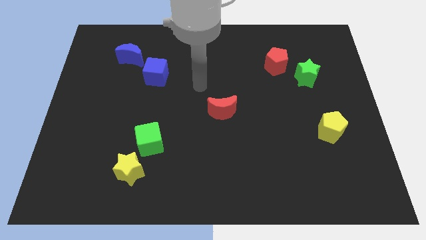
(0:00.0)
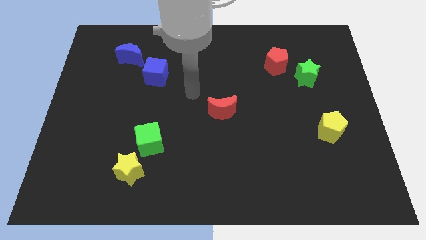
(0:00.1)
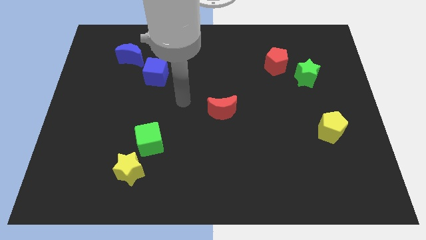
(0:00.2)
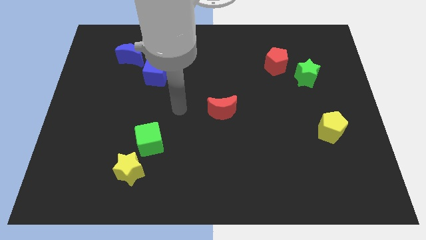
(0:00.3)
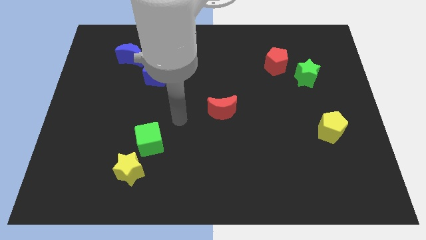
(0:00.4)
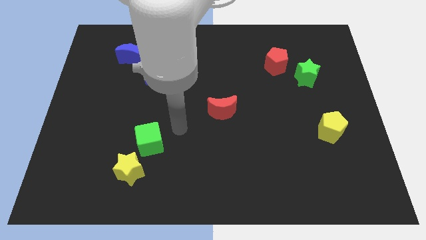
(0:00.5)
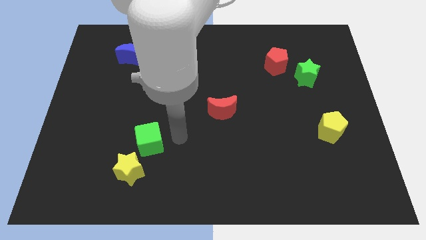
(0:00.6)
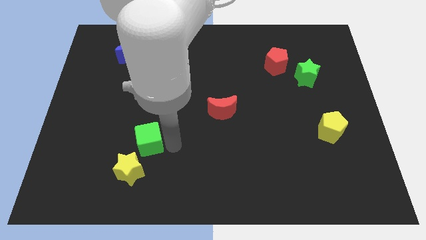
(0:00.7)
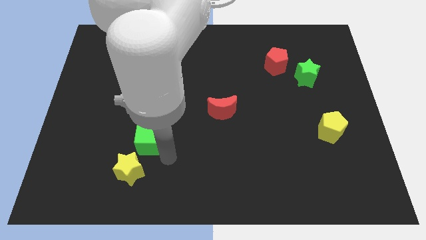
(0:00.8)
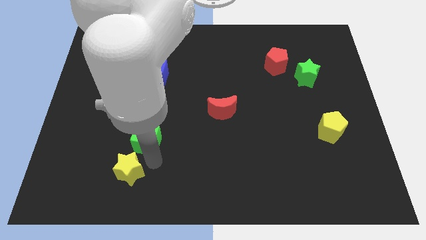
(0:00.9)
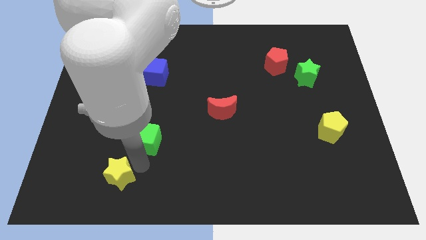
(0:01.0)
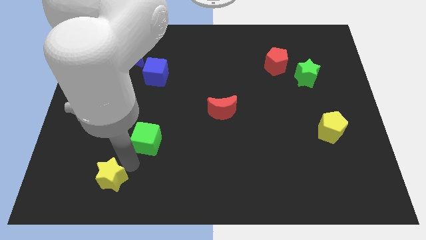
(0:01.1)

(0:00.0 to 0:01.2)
move the green cube away from the yellow star

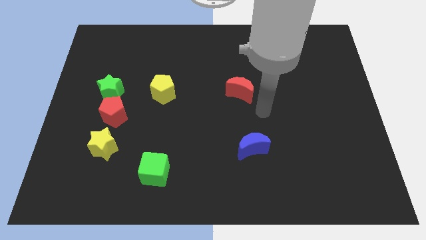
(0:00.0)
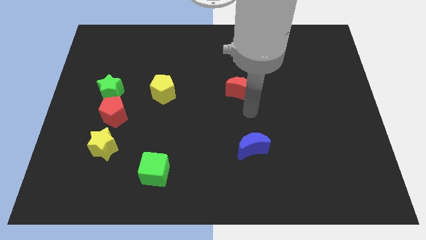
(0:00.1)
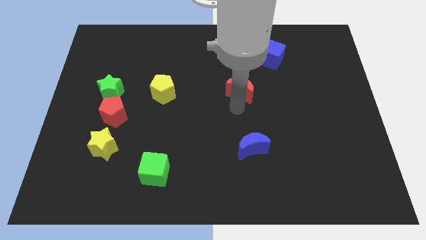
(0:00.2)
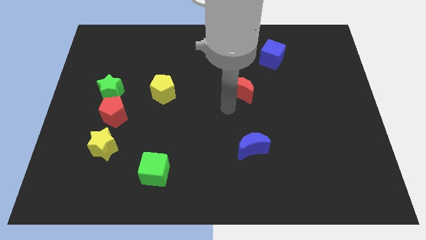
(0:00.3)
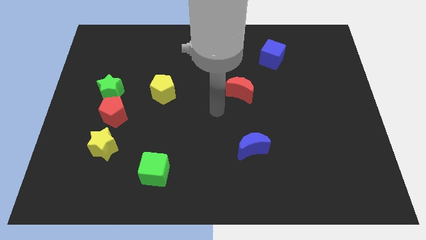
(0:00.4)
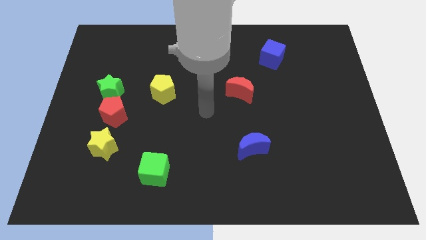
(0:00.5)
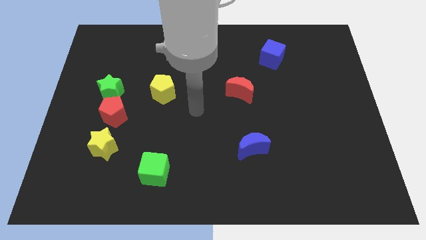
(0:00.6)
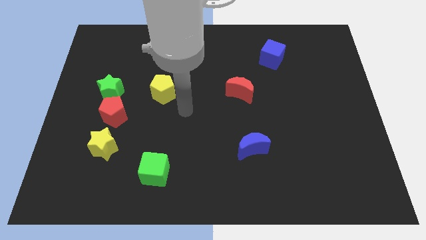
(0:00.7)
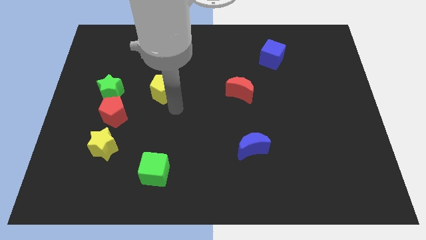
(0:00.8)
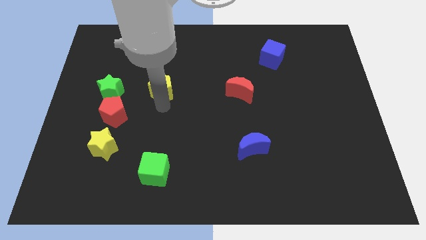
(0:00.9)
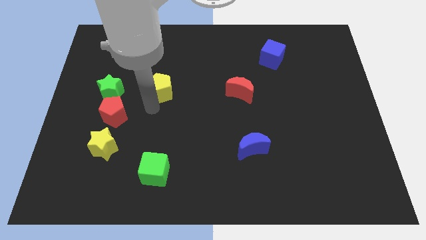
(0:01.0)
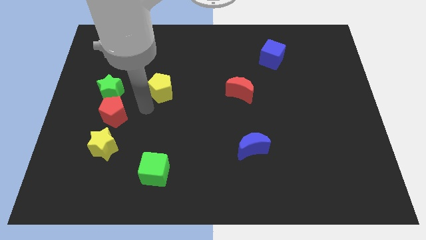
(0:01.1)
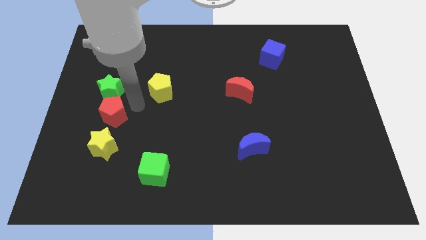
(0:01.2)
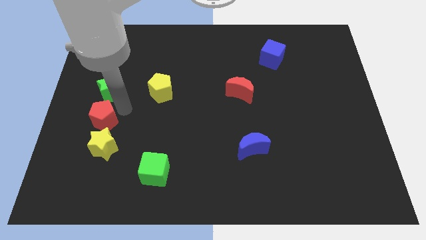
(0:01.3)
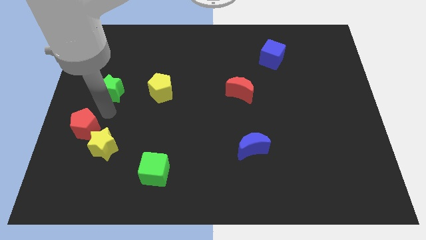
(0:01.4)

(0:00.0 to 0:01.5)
move the green star away from the red pentagon

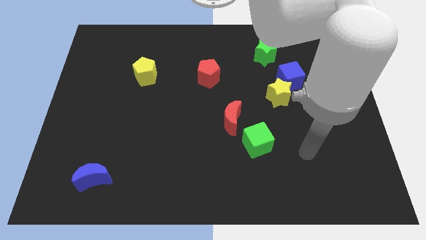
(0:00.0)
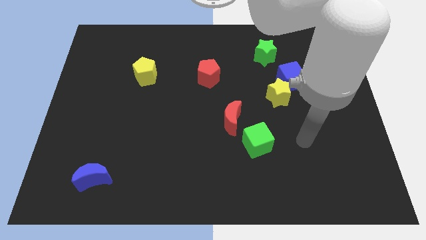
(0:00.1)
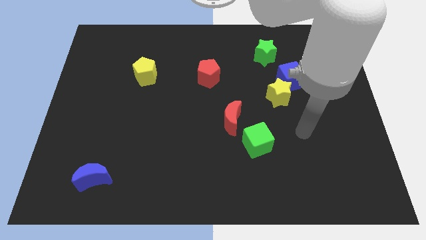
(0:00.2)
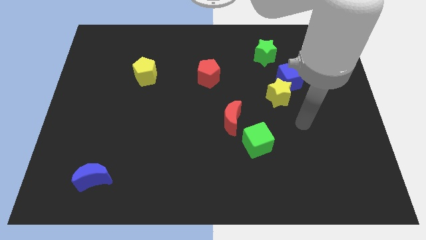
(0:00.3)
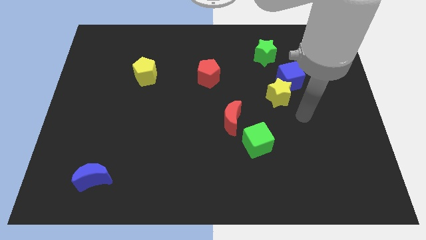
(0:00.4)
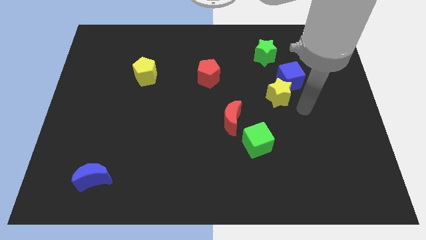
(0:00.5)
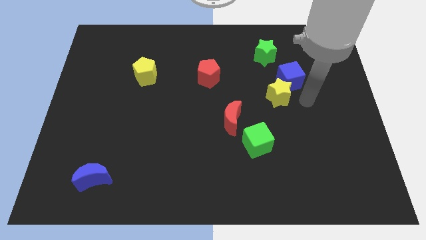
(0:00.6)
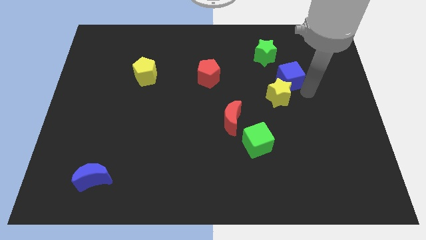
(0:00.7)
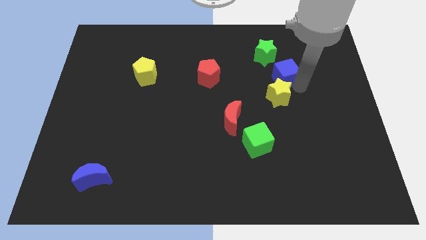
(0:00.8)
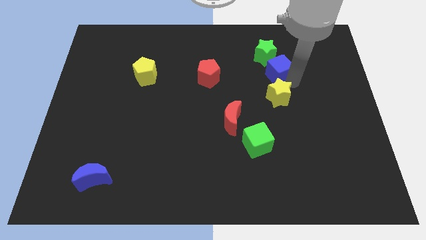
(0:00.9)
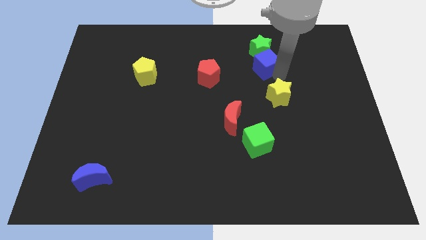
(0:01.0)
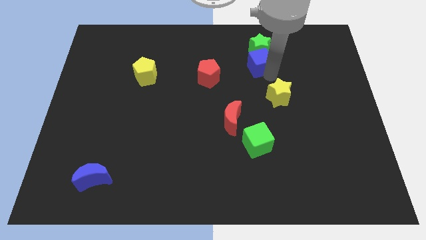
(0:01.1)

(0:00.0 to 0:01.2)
separate the yellow star from the blue cube

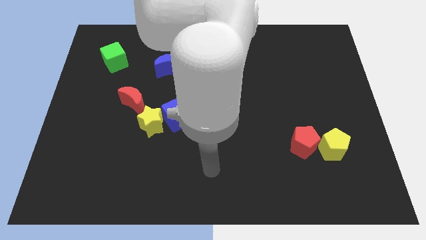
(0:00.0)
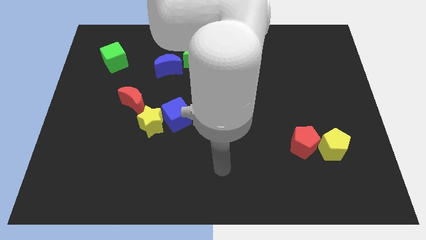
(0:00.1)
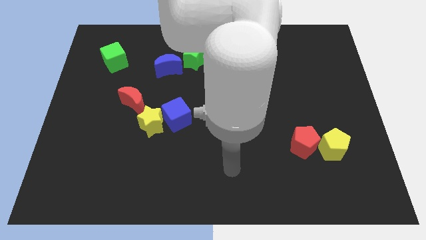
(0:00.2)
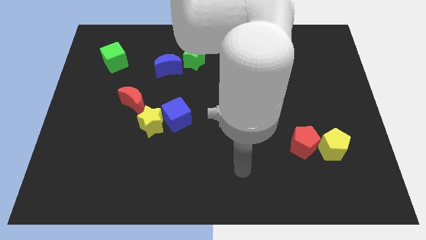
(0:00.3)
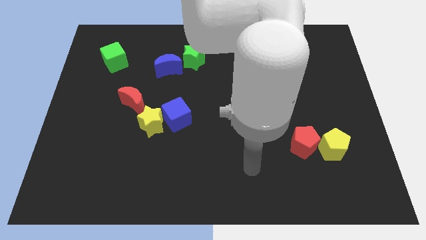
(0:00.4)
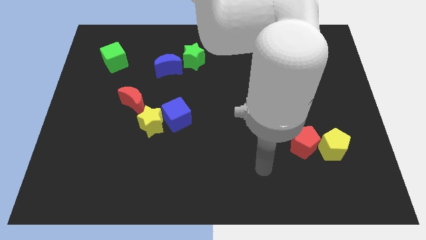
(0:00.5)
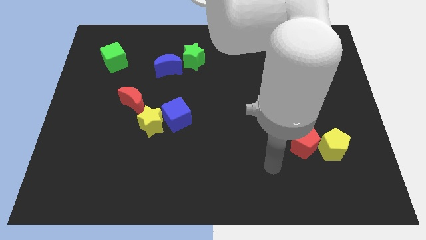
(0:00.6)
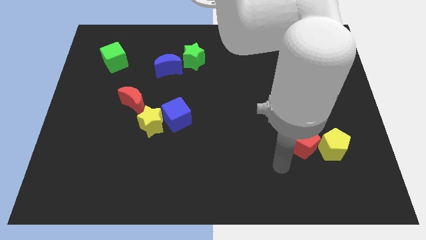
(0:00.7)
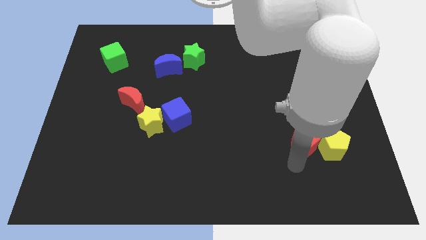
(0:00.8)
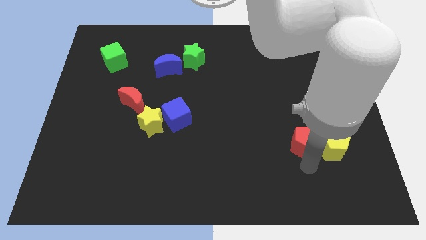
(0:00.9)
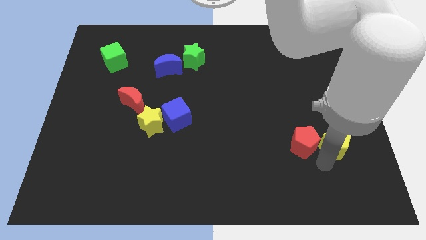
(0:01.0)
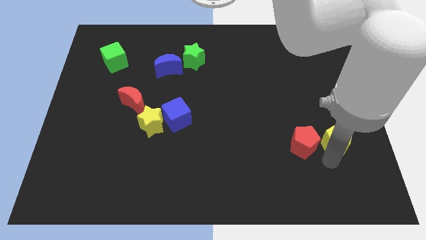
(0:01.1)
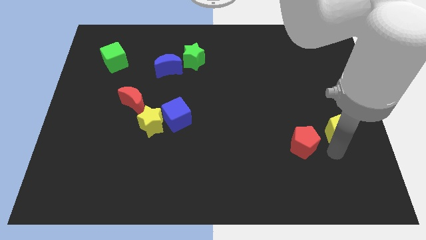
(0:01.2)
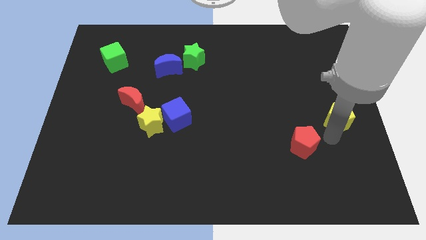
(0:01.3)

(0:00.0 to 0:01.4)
separate the red pentagon from the yellow pentagon

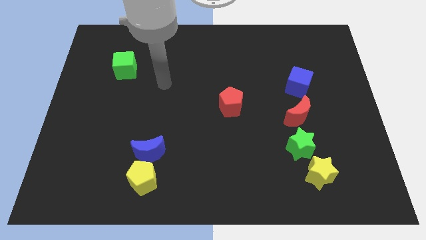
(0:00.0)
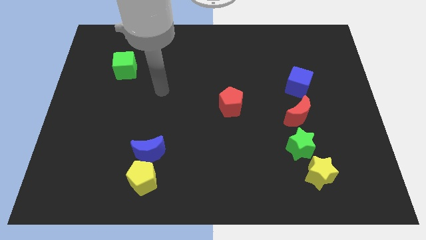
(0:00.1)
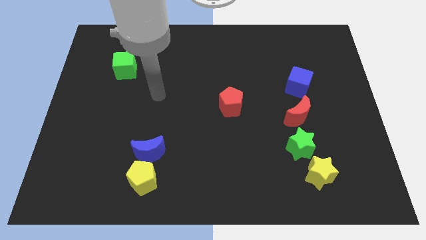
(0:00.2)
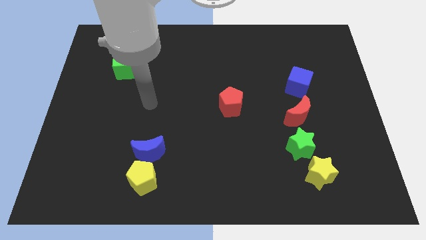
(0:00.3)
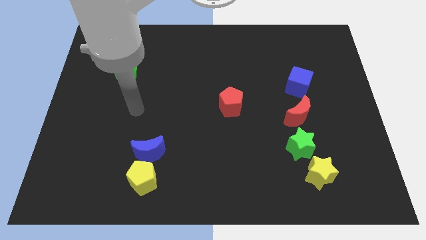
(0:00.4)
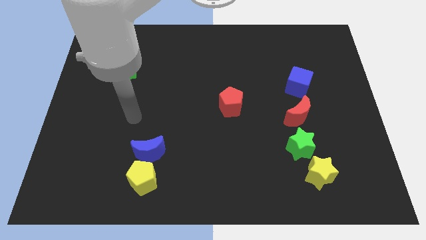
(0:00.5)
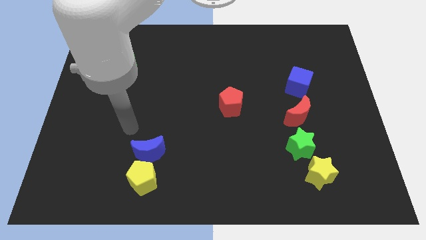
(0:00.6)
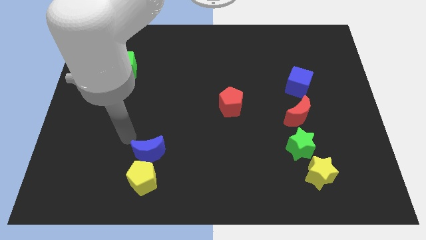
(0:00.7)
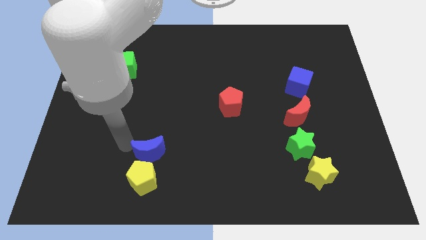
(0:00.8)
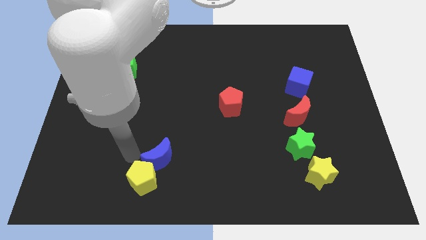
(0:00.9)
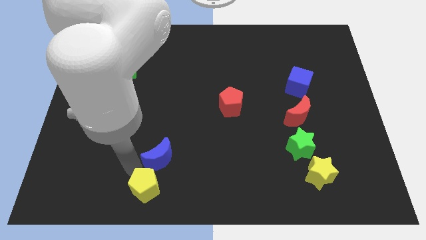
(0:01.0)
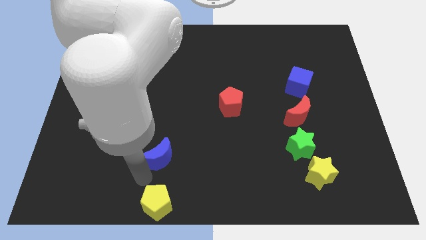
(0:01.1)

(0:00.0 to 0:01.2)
separate the blue moon from the yellow pentagon

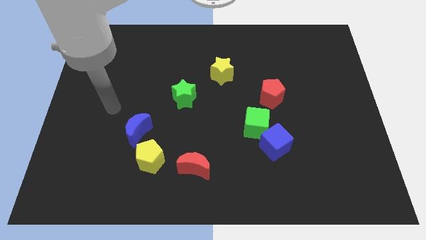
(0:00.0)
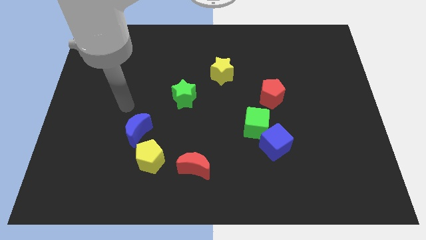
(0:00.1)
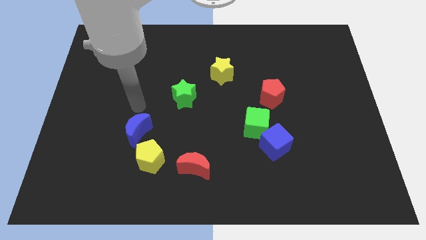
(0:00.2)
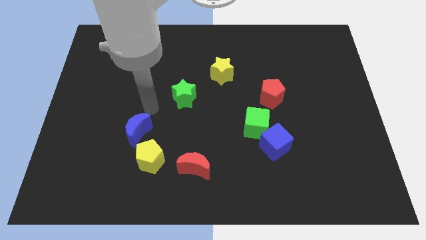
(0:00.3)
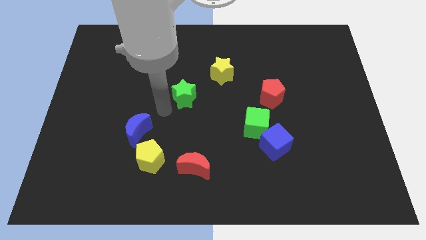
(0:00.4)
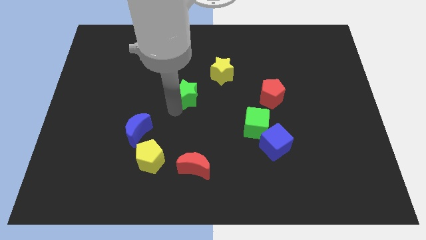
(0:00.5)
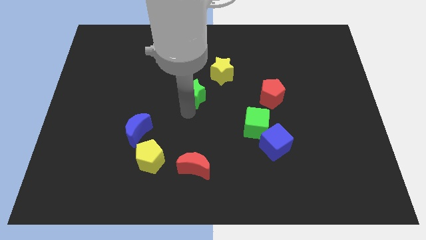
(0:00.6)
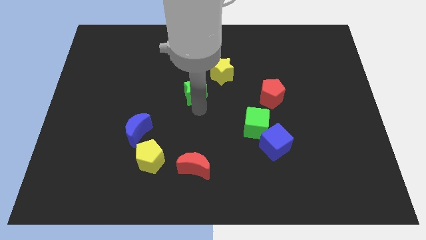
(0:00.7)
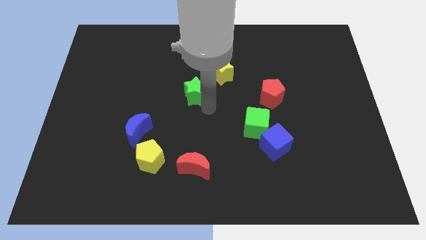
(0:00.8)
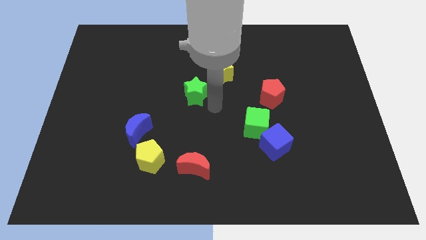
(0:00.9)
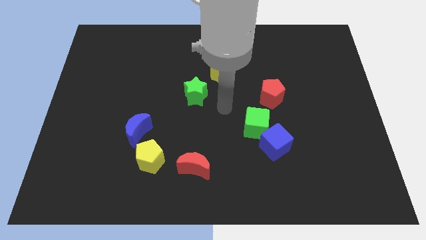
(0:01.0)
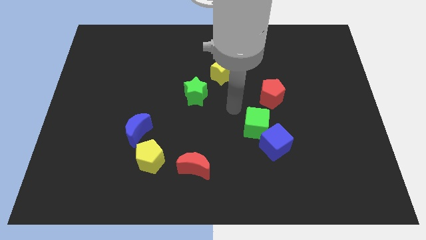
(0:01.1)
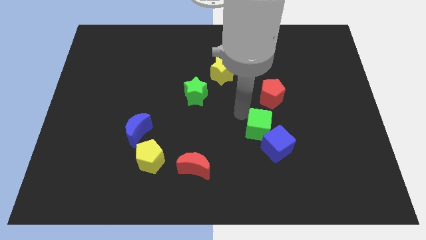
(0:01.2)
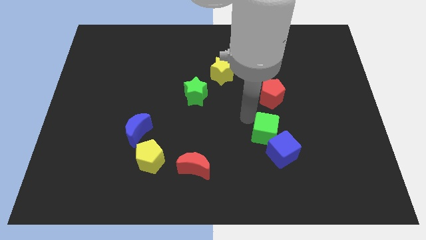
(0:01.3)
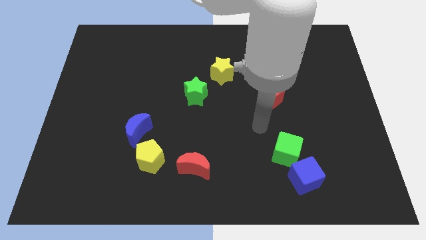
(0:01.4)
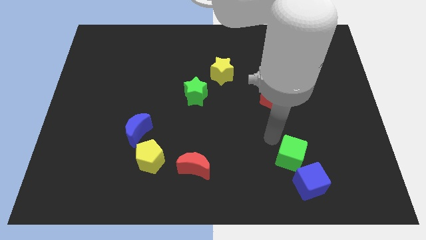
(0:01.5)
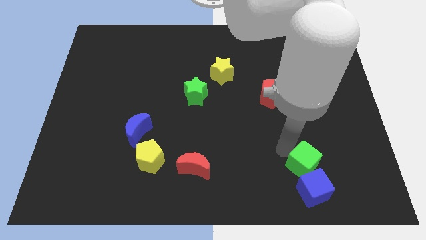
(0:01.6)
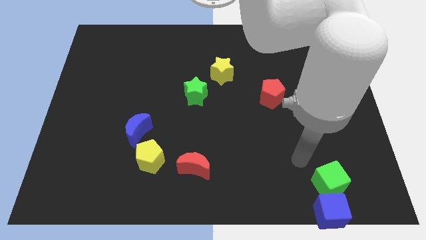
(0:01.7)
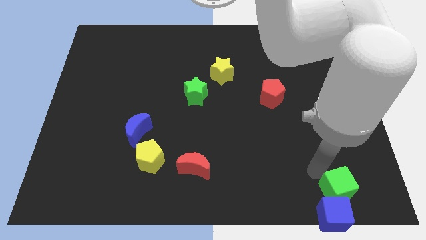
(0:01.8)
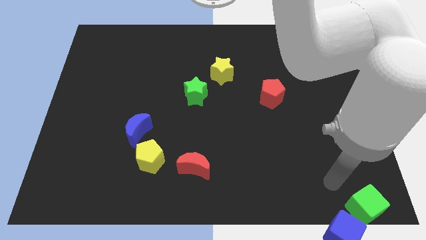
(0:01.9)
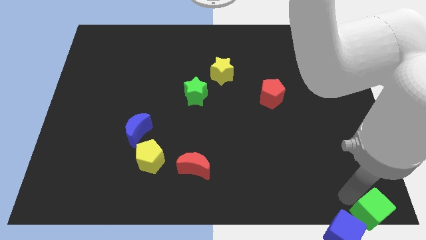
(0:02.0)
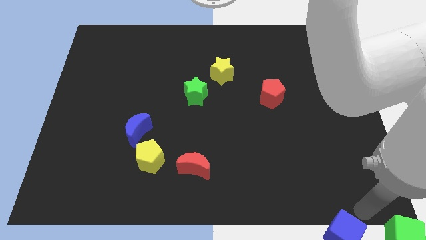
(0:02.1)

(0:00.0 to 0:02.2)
move the blue cube away from the green cube

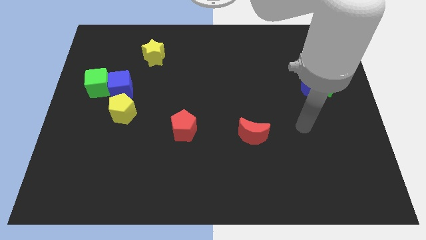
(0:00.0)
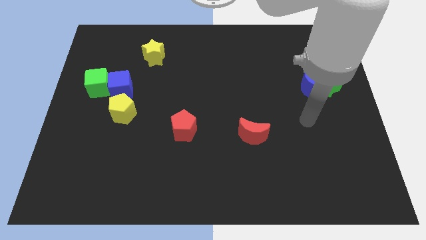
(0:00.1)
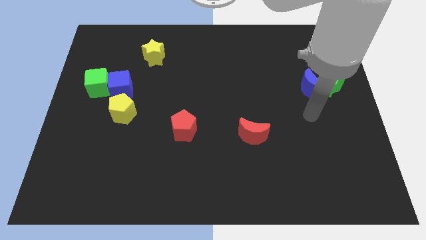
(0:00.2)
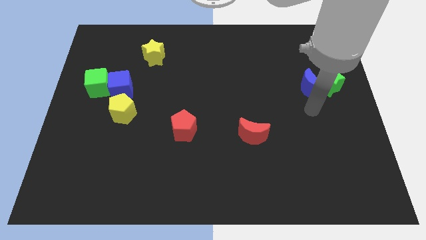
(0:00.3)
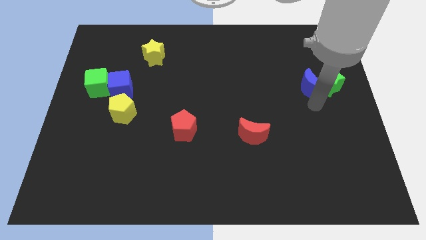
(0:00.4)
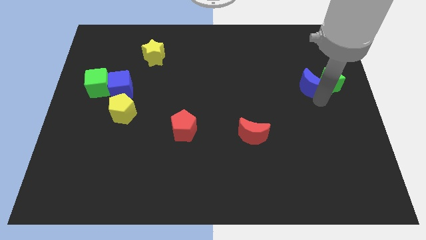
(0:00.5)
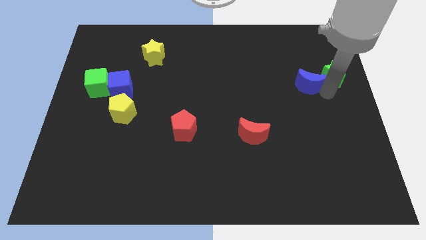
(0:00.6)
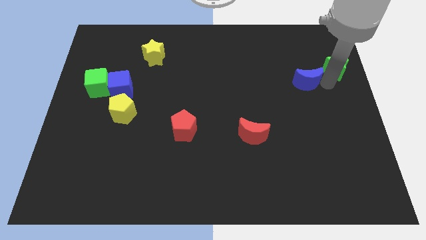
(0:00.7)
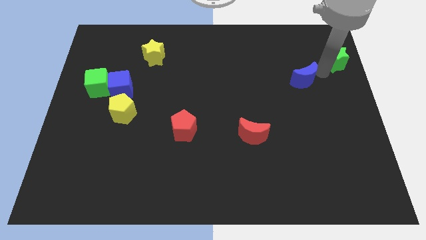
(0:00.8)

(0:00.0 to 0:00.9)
move the blue moon away from the green star
